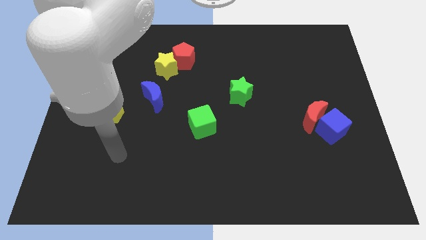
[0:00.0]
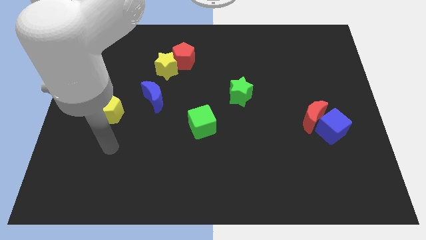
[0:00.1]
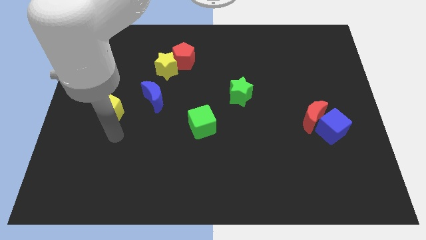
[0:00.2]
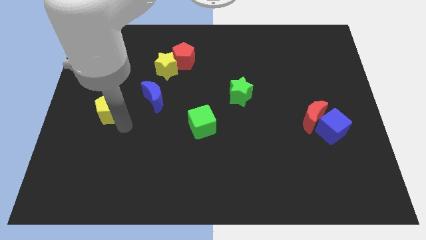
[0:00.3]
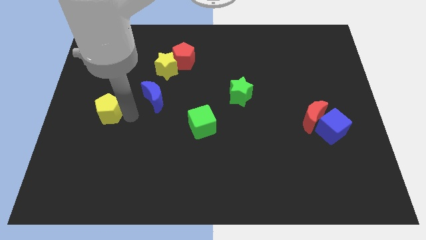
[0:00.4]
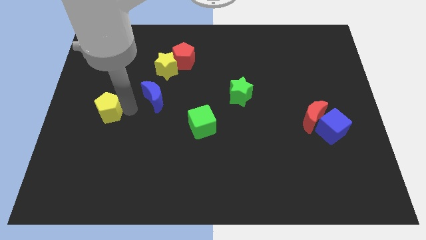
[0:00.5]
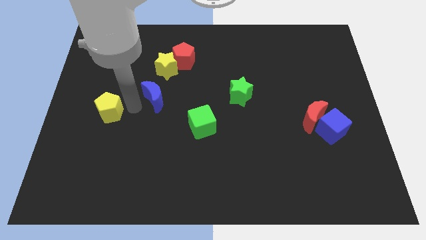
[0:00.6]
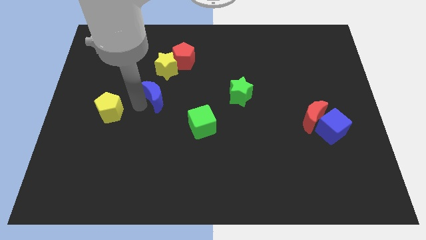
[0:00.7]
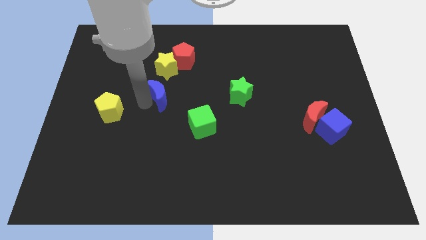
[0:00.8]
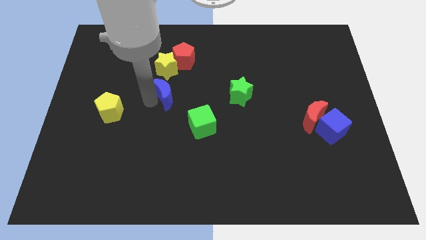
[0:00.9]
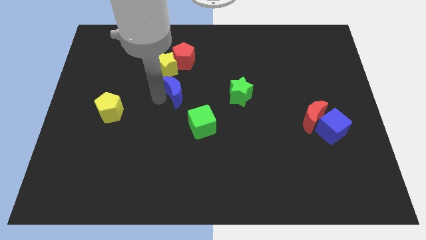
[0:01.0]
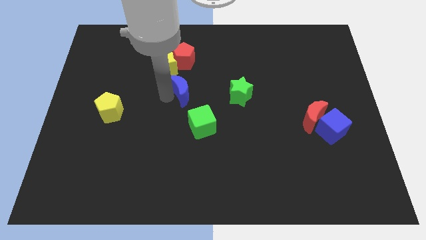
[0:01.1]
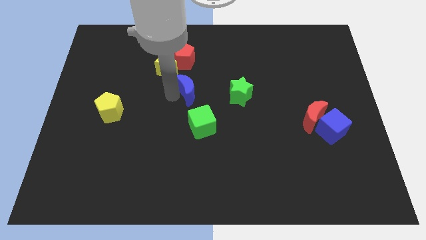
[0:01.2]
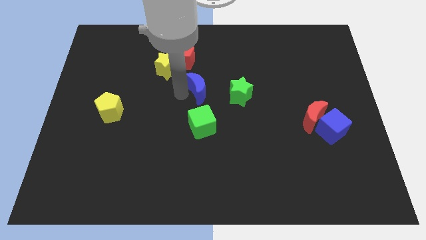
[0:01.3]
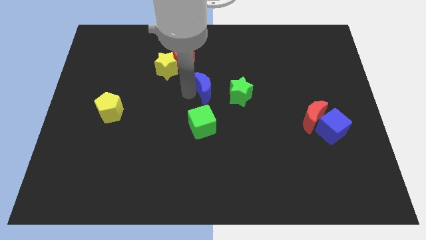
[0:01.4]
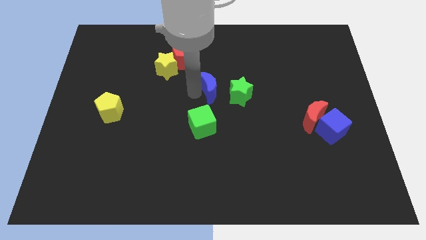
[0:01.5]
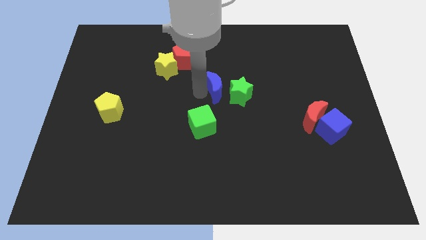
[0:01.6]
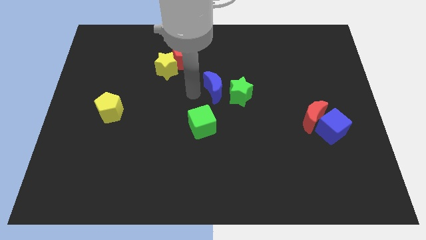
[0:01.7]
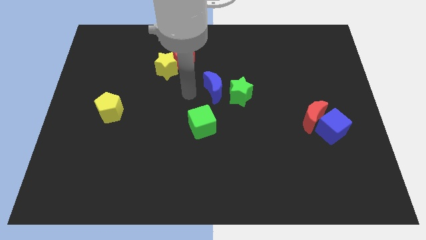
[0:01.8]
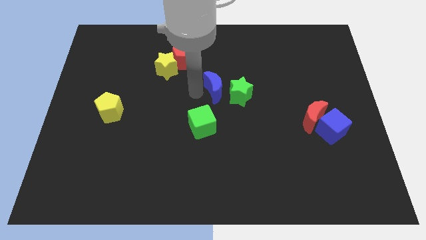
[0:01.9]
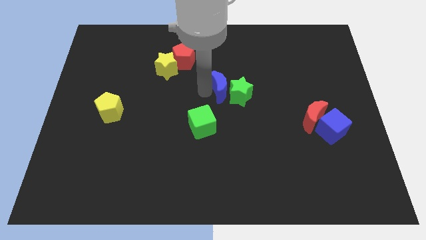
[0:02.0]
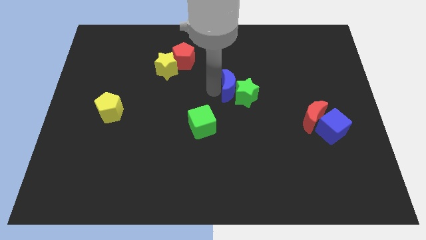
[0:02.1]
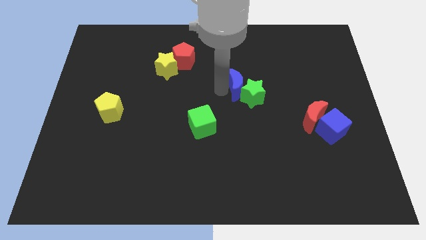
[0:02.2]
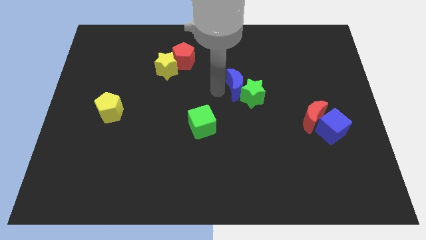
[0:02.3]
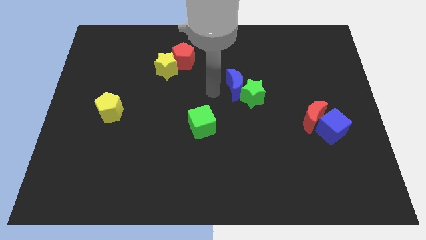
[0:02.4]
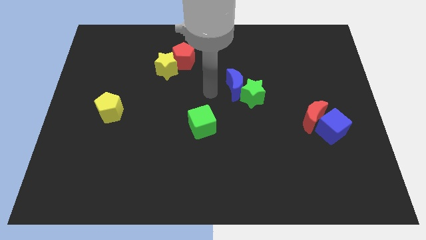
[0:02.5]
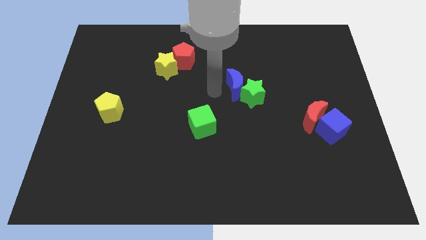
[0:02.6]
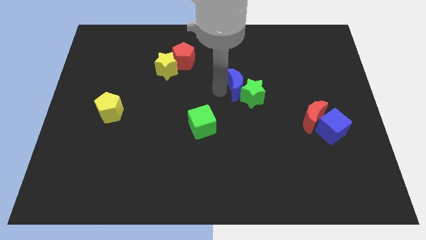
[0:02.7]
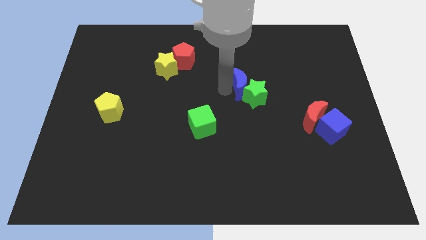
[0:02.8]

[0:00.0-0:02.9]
push the blue moon right

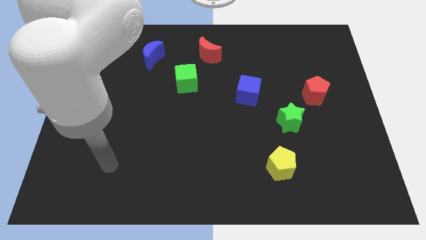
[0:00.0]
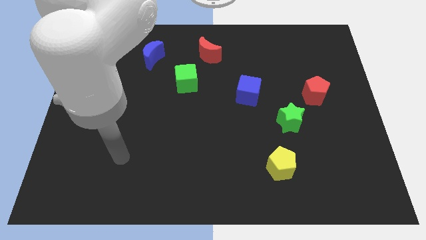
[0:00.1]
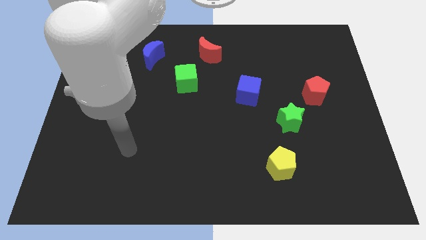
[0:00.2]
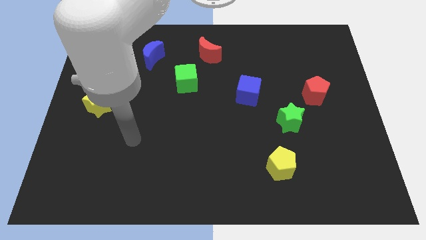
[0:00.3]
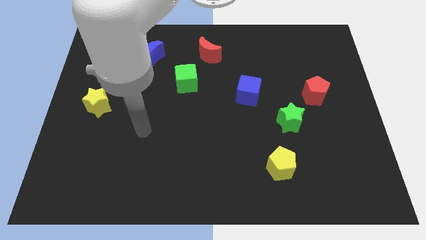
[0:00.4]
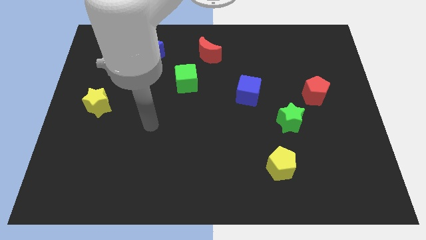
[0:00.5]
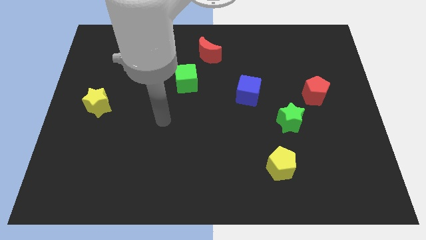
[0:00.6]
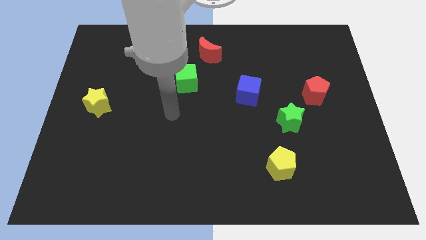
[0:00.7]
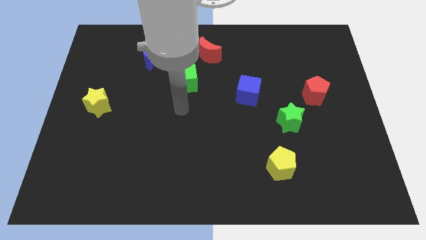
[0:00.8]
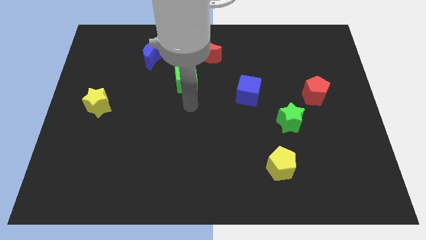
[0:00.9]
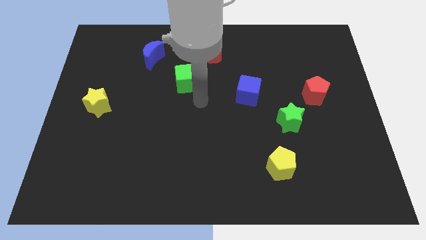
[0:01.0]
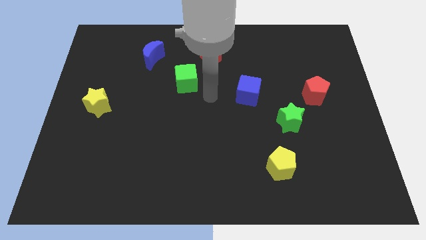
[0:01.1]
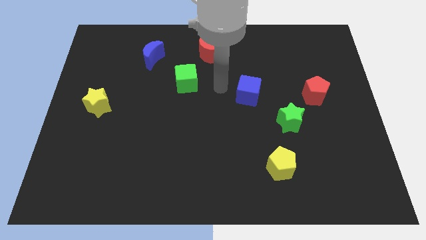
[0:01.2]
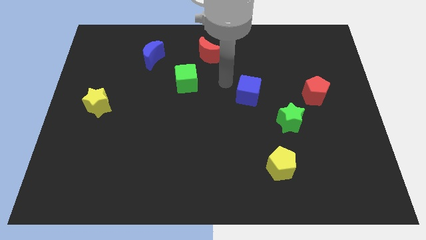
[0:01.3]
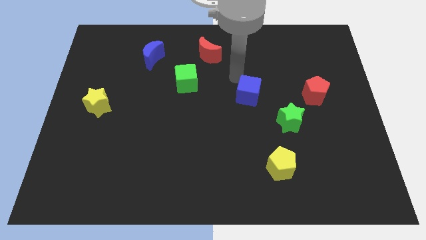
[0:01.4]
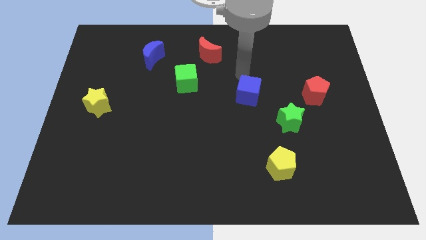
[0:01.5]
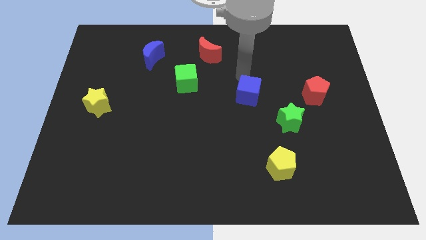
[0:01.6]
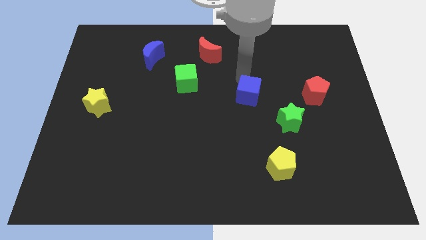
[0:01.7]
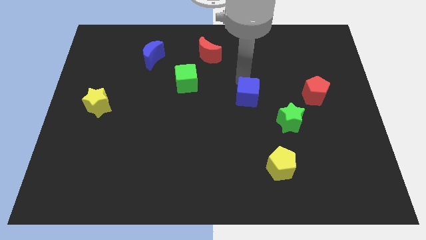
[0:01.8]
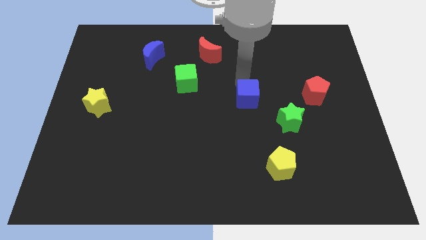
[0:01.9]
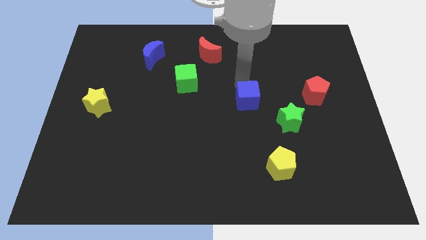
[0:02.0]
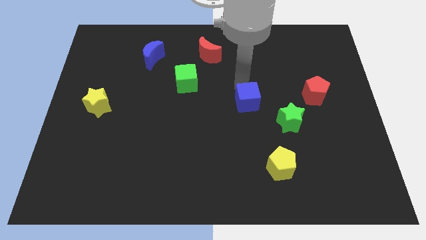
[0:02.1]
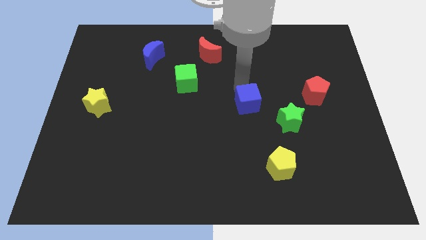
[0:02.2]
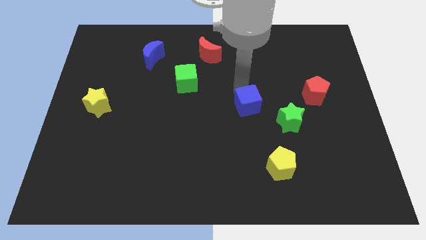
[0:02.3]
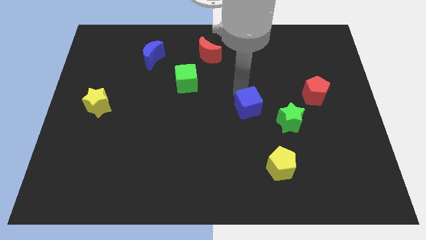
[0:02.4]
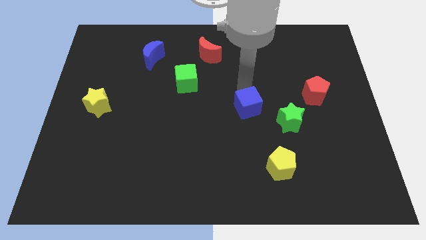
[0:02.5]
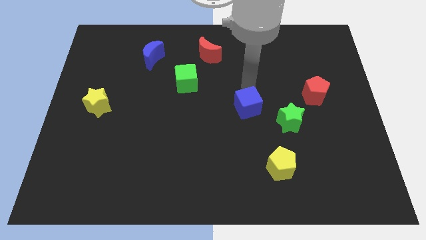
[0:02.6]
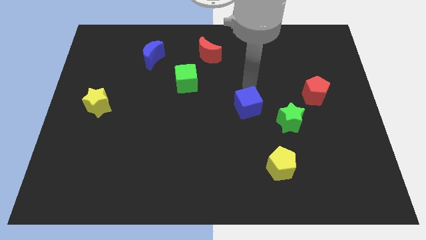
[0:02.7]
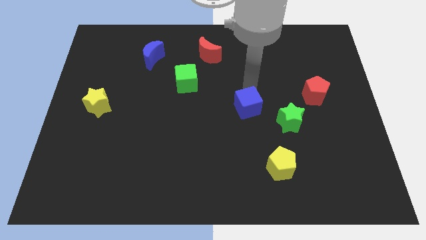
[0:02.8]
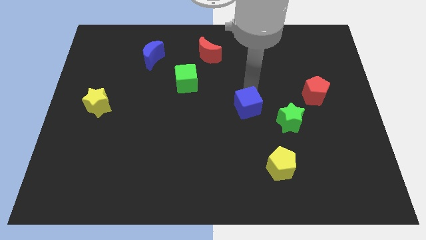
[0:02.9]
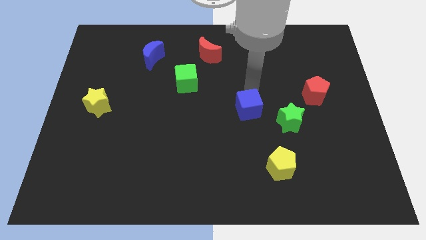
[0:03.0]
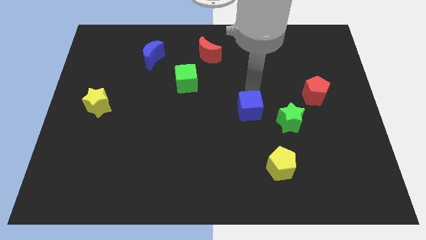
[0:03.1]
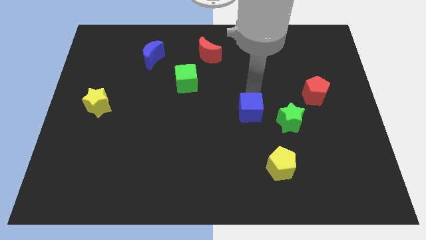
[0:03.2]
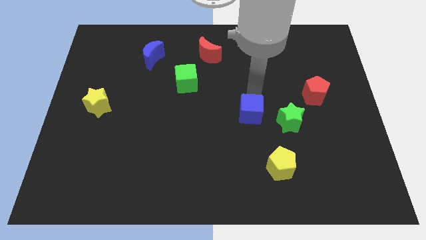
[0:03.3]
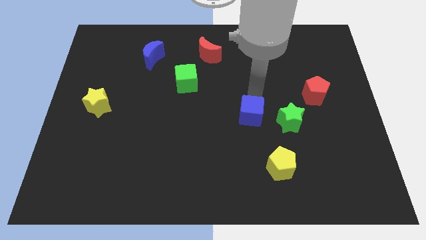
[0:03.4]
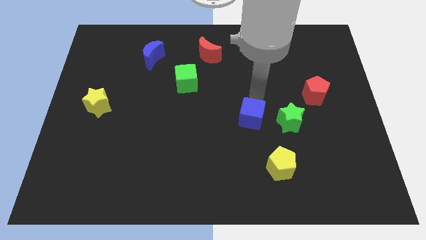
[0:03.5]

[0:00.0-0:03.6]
slightly push the blue cube down

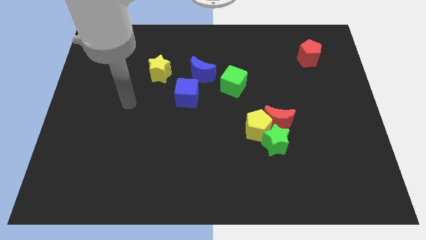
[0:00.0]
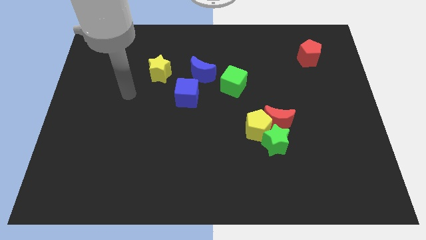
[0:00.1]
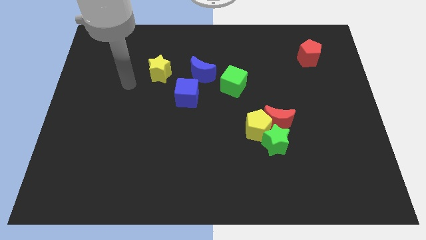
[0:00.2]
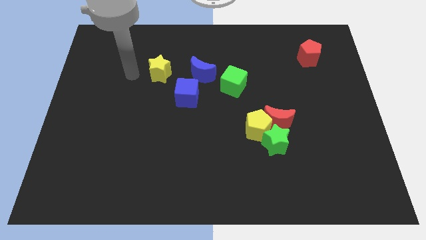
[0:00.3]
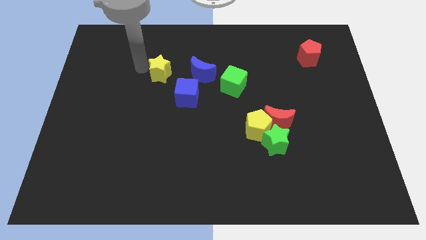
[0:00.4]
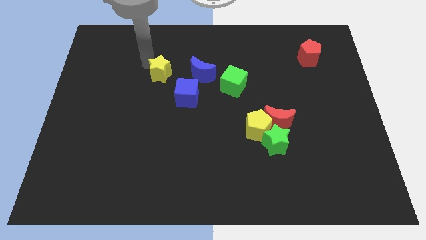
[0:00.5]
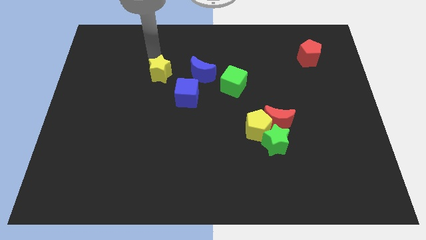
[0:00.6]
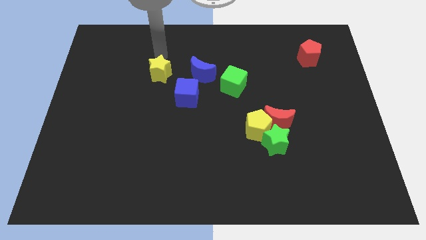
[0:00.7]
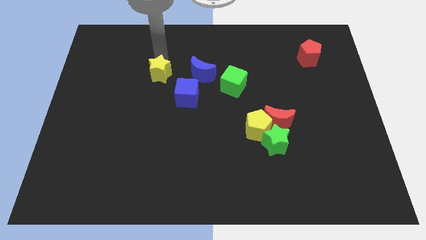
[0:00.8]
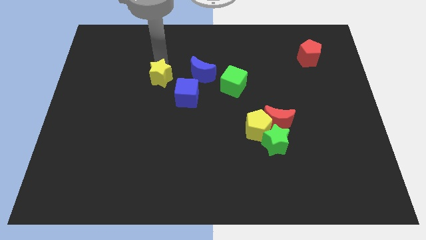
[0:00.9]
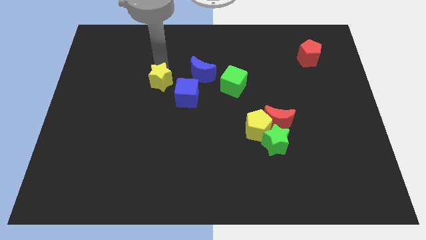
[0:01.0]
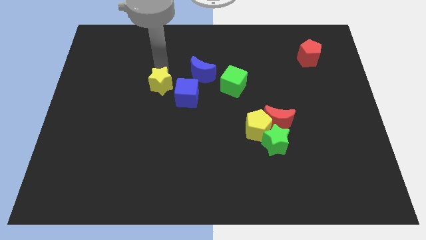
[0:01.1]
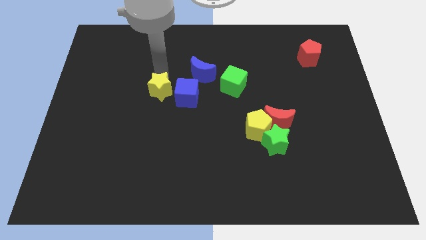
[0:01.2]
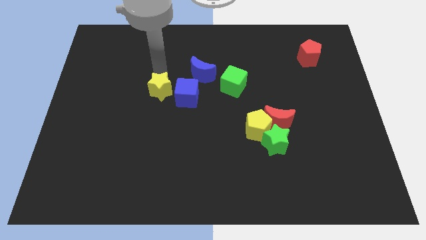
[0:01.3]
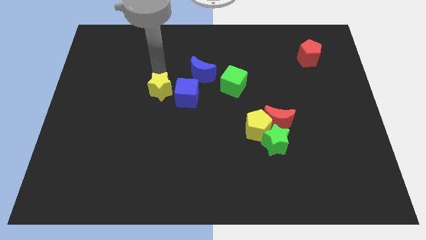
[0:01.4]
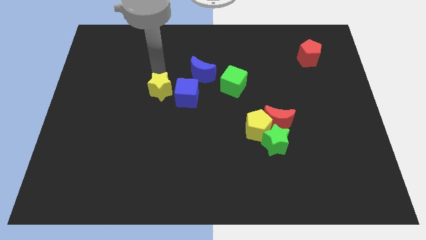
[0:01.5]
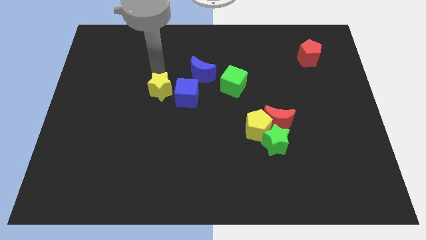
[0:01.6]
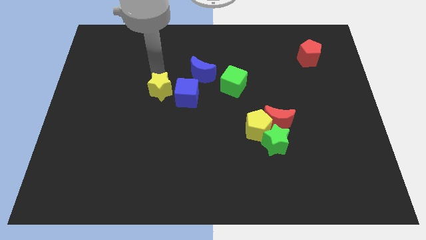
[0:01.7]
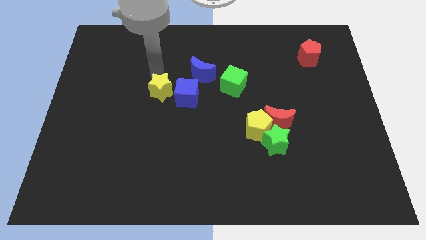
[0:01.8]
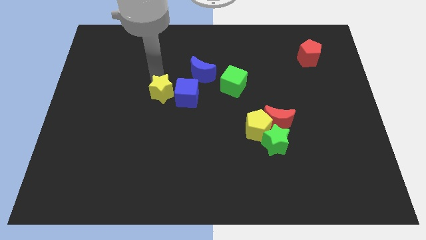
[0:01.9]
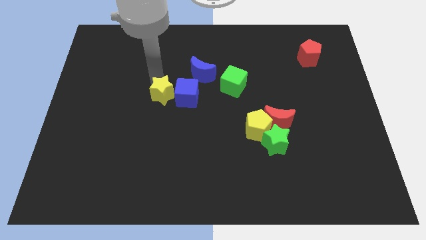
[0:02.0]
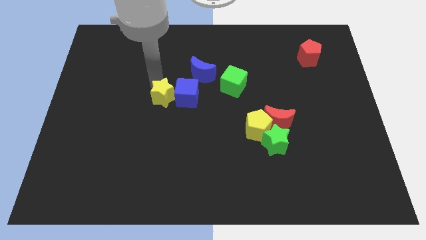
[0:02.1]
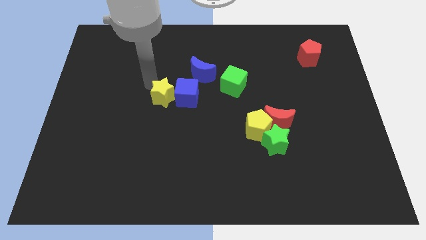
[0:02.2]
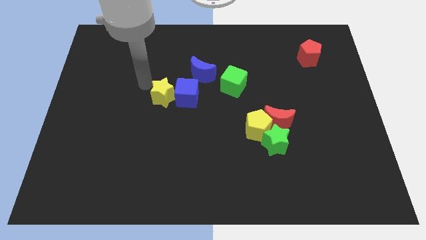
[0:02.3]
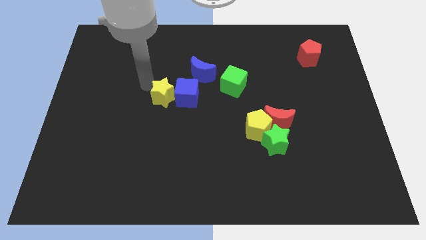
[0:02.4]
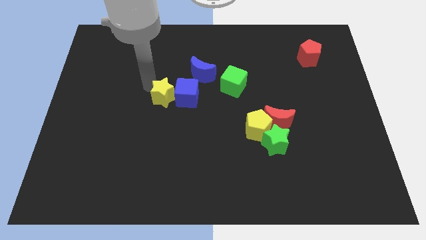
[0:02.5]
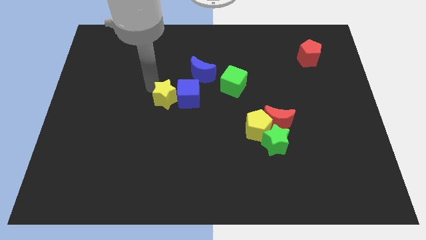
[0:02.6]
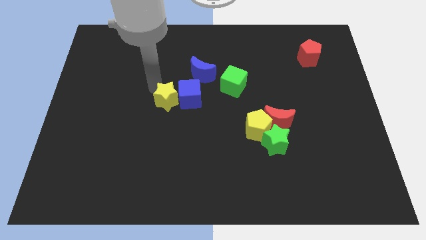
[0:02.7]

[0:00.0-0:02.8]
push the yellow star a bit diagonally down and to the right
